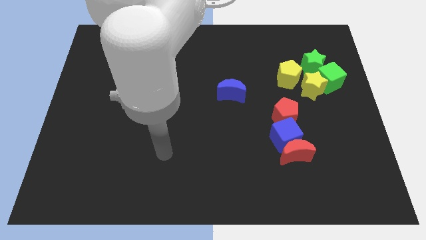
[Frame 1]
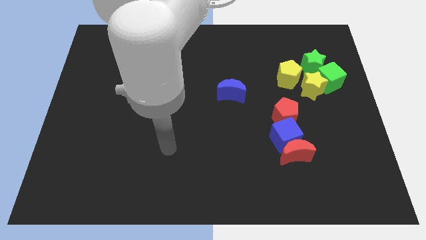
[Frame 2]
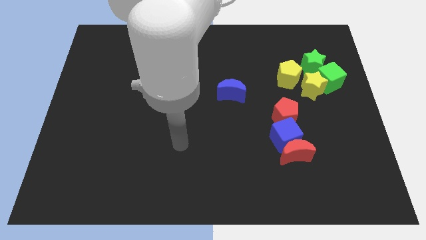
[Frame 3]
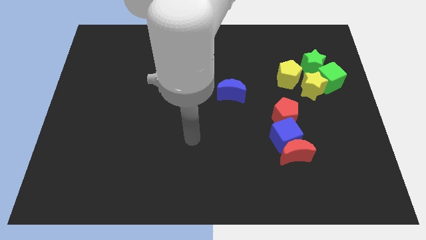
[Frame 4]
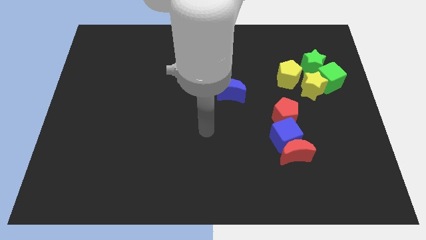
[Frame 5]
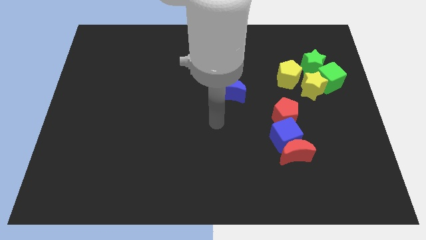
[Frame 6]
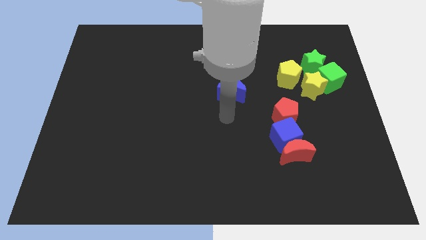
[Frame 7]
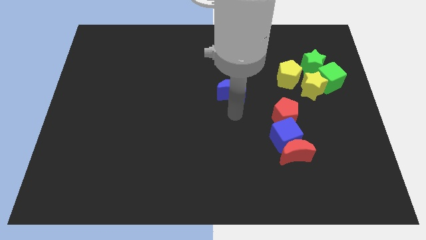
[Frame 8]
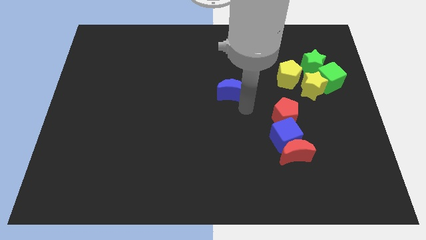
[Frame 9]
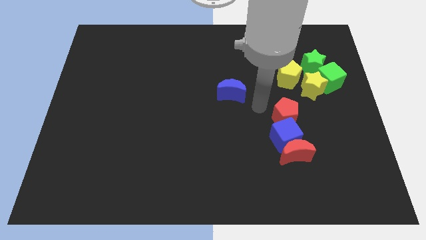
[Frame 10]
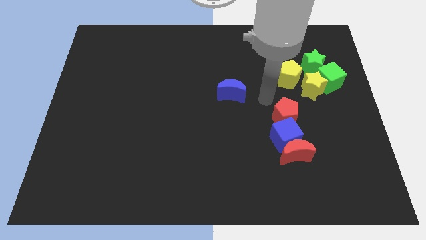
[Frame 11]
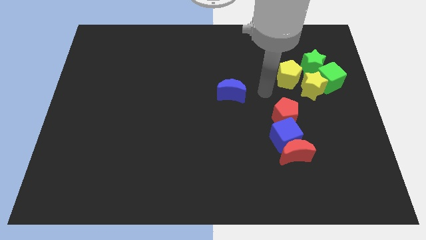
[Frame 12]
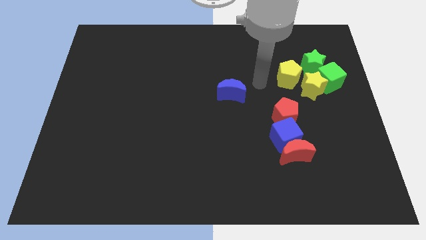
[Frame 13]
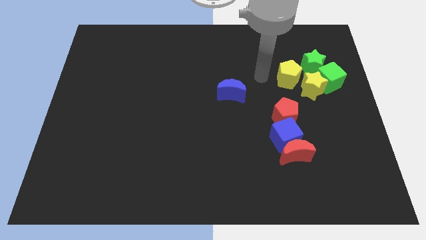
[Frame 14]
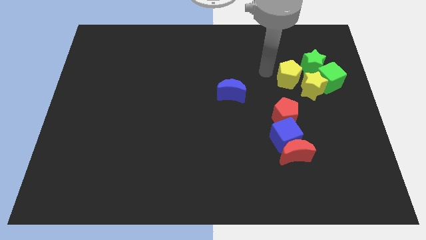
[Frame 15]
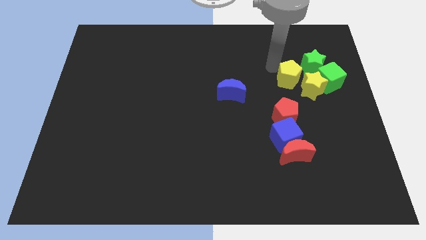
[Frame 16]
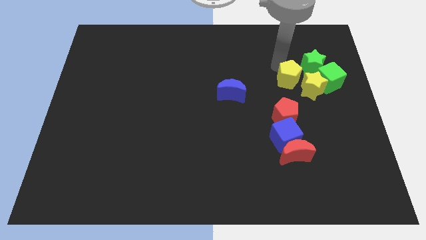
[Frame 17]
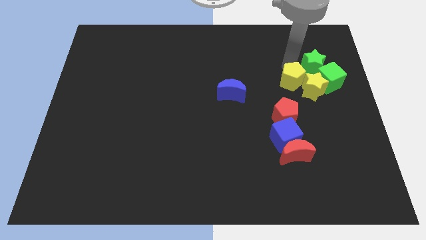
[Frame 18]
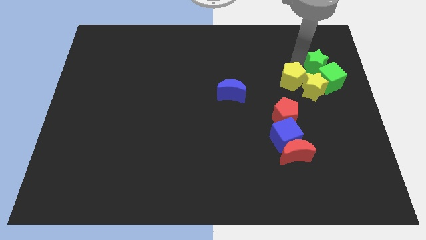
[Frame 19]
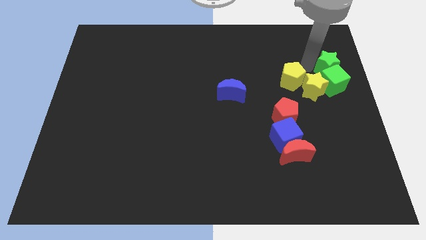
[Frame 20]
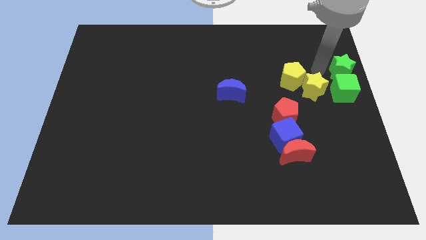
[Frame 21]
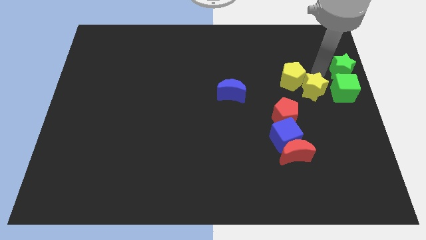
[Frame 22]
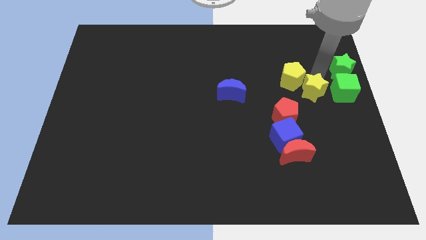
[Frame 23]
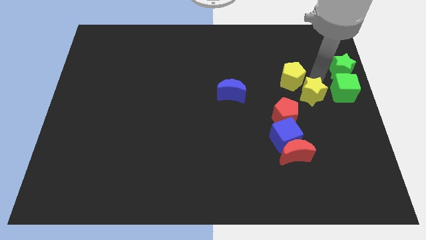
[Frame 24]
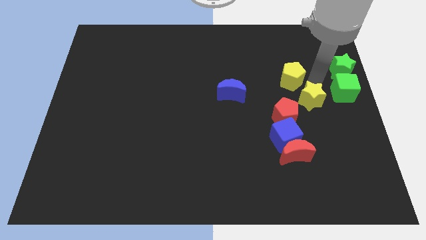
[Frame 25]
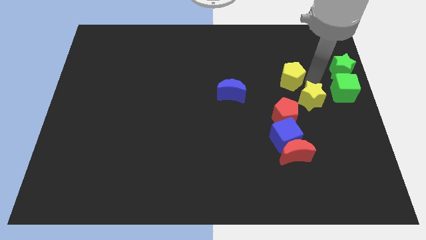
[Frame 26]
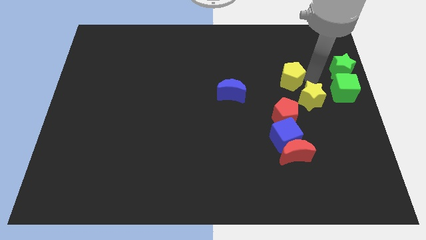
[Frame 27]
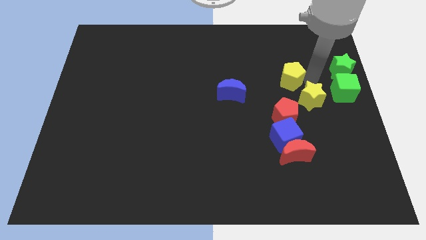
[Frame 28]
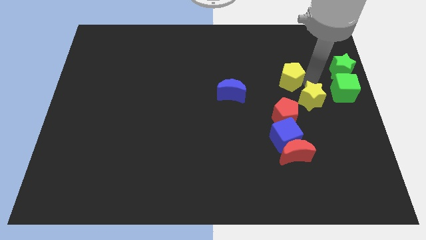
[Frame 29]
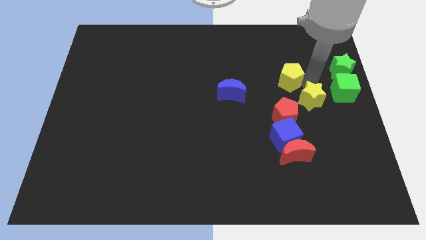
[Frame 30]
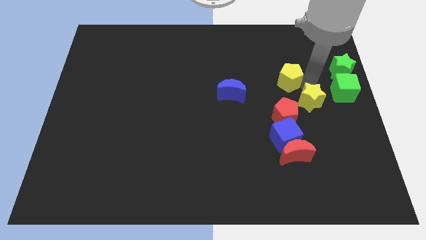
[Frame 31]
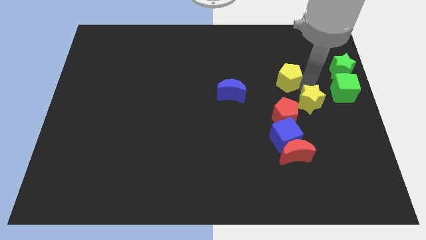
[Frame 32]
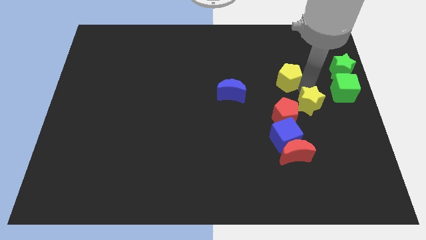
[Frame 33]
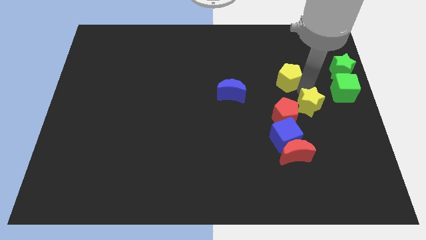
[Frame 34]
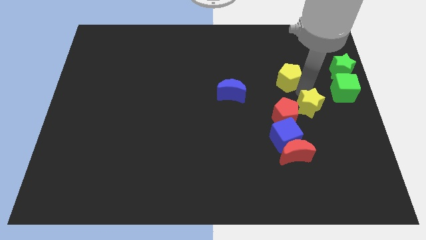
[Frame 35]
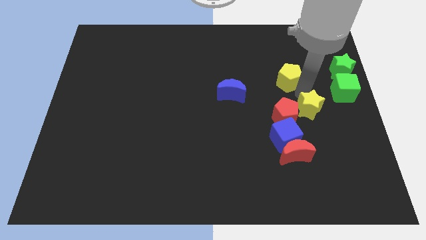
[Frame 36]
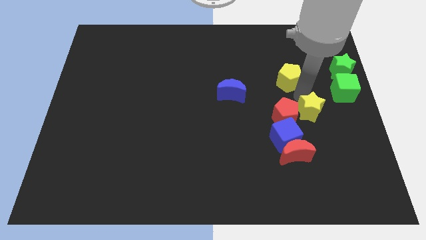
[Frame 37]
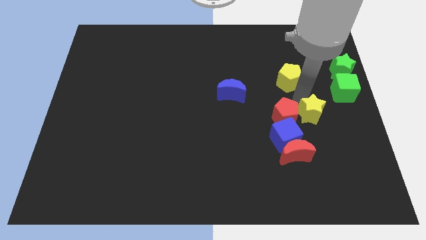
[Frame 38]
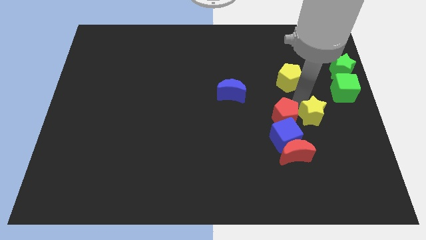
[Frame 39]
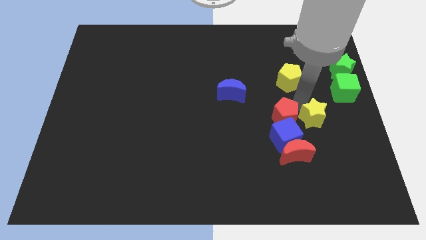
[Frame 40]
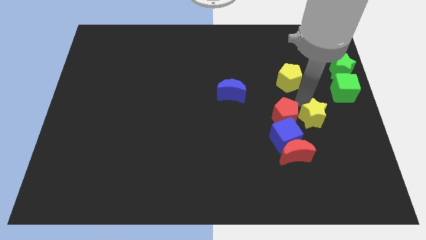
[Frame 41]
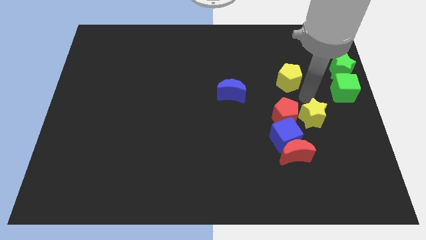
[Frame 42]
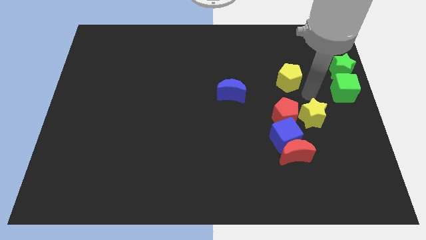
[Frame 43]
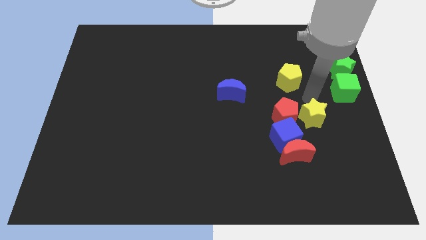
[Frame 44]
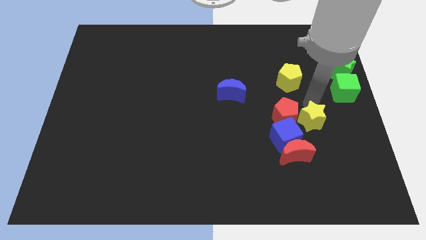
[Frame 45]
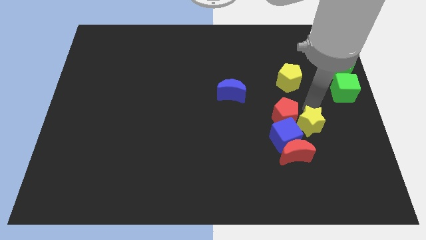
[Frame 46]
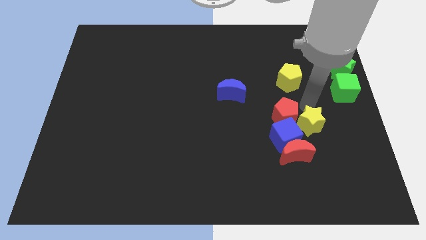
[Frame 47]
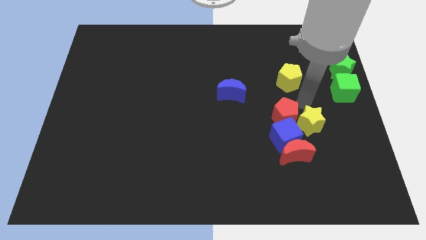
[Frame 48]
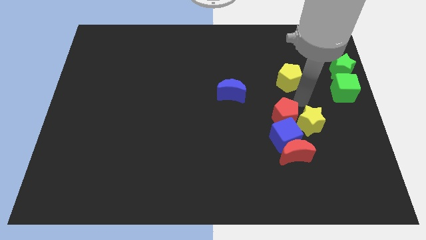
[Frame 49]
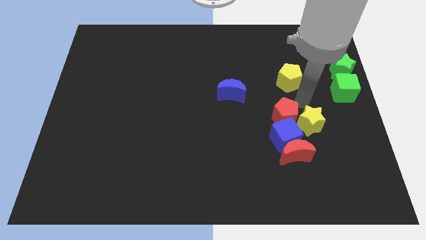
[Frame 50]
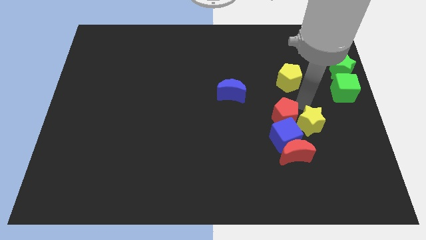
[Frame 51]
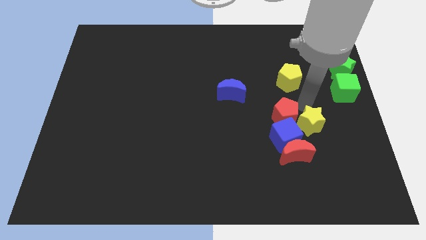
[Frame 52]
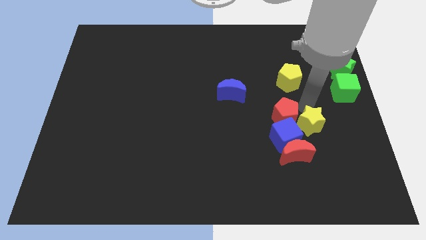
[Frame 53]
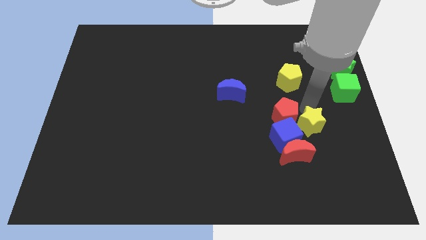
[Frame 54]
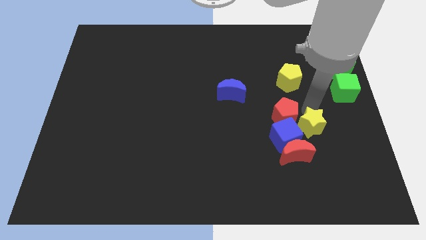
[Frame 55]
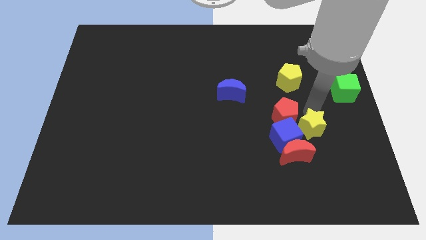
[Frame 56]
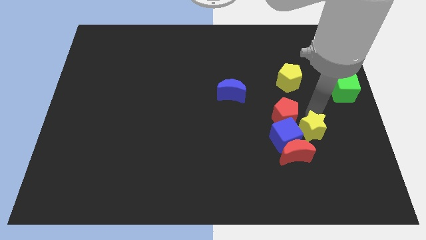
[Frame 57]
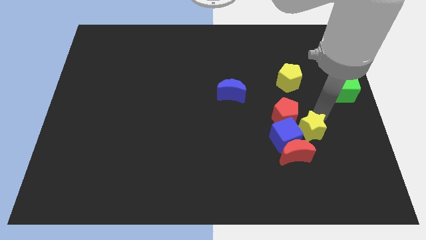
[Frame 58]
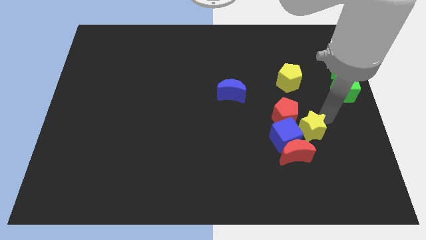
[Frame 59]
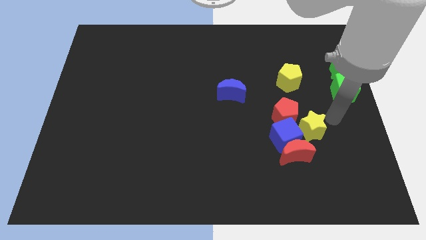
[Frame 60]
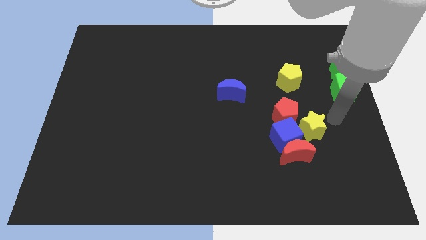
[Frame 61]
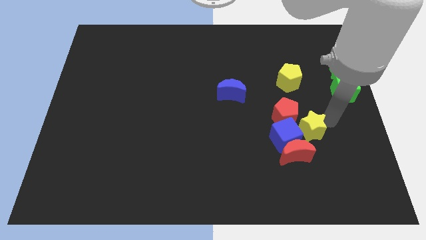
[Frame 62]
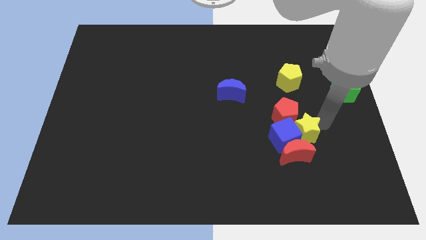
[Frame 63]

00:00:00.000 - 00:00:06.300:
put the yellow star towards the blue cube
